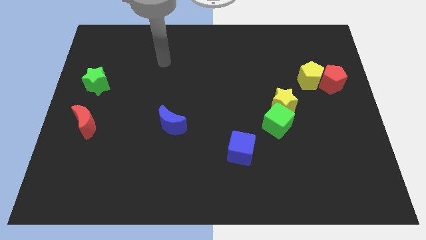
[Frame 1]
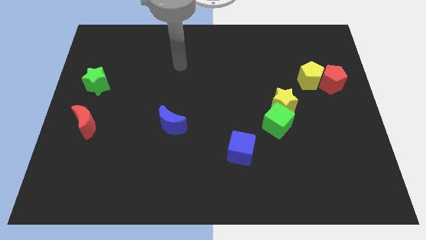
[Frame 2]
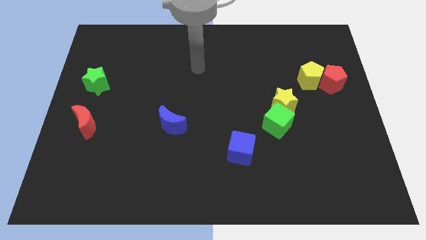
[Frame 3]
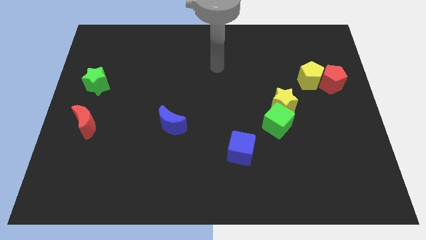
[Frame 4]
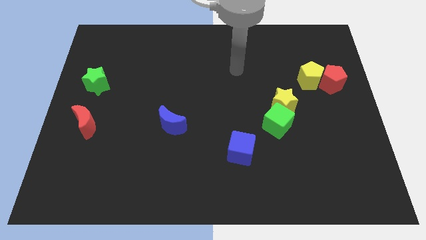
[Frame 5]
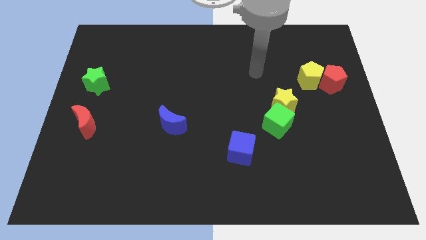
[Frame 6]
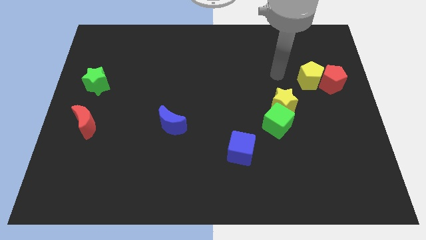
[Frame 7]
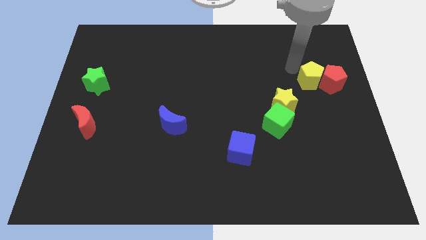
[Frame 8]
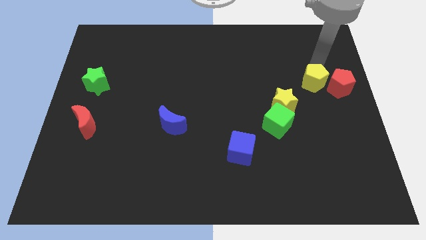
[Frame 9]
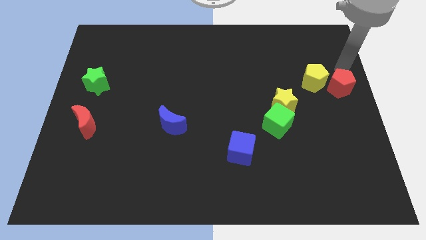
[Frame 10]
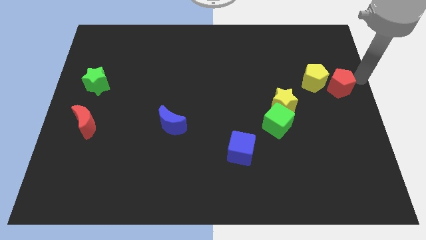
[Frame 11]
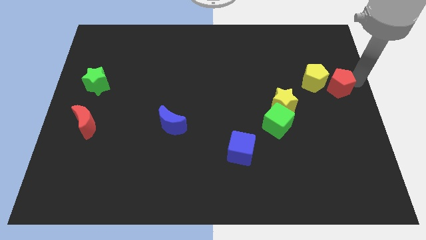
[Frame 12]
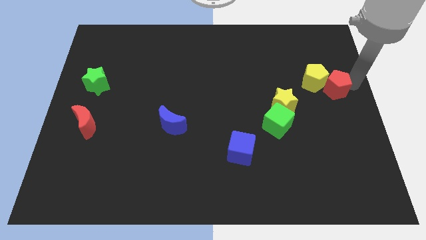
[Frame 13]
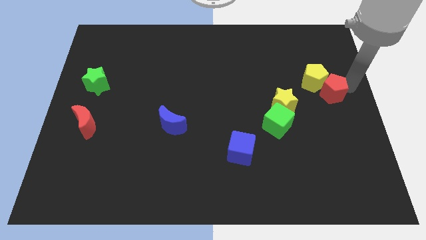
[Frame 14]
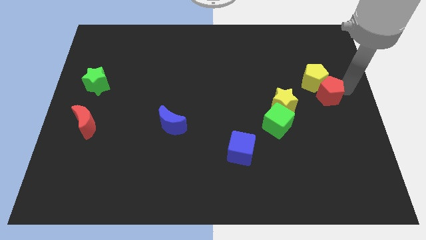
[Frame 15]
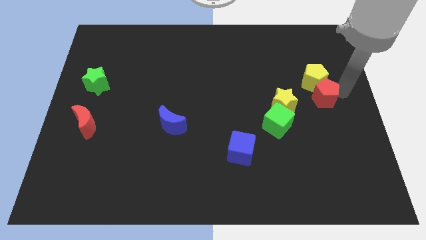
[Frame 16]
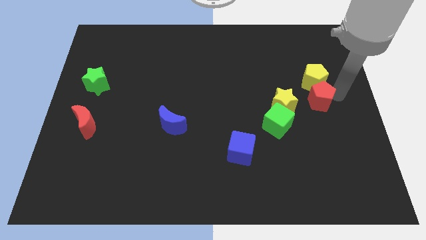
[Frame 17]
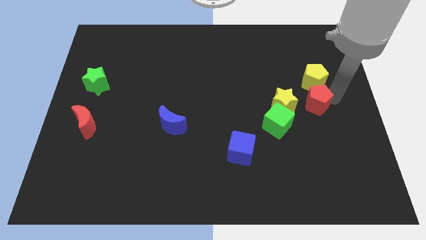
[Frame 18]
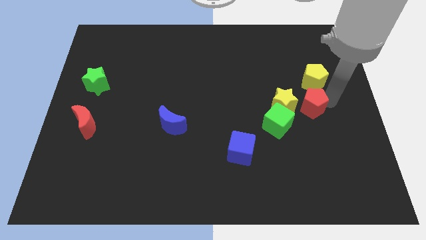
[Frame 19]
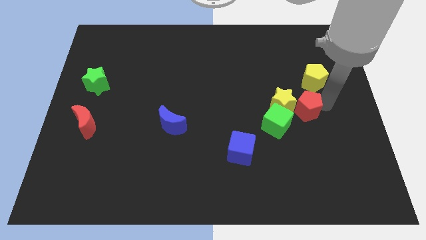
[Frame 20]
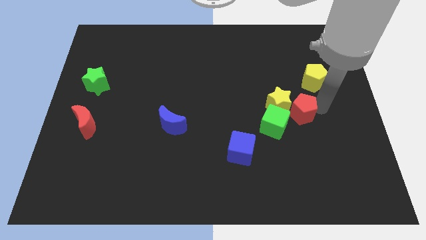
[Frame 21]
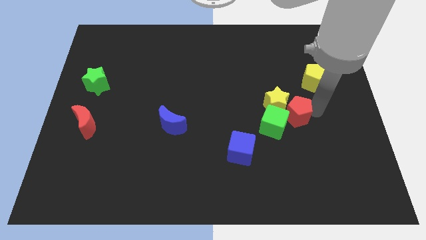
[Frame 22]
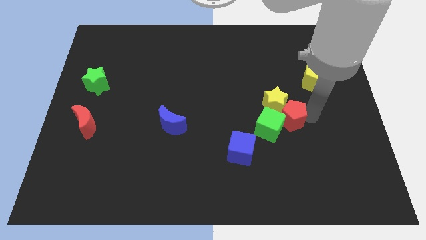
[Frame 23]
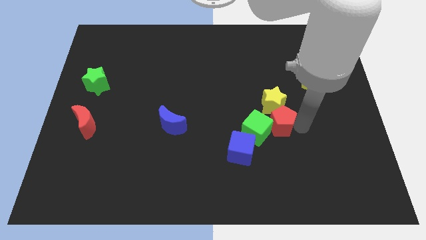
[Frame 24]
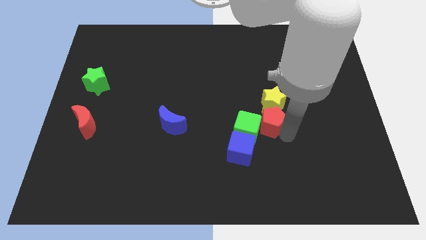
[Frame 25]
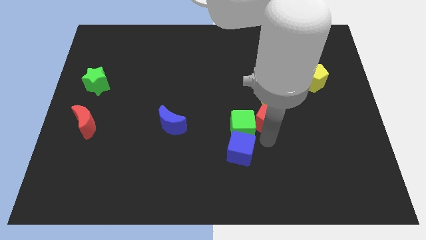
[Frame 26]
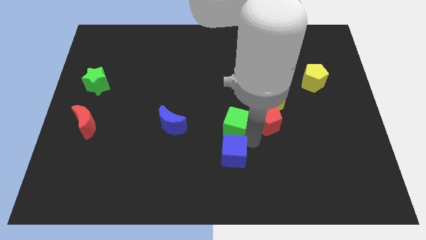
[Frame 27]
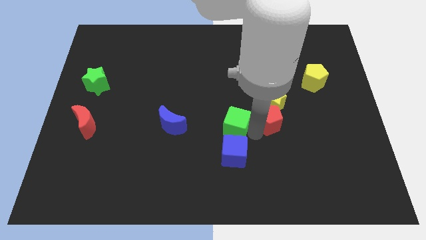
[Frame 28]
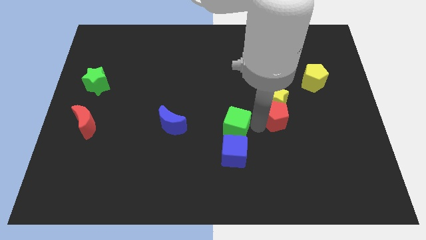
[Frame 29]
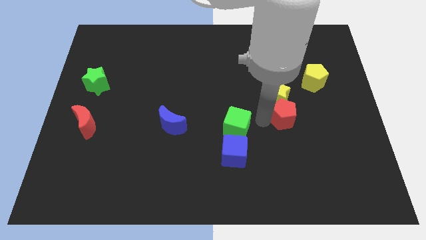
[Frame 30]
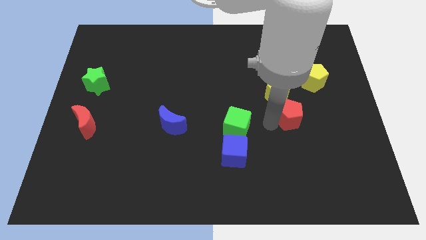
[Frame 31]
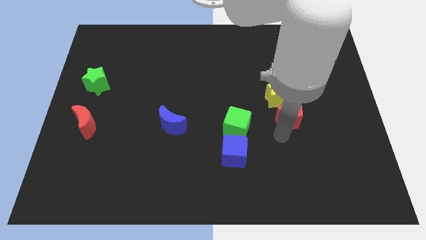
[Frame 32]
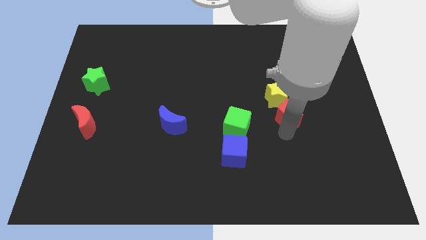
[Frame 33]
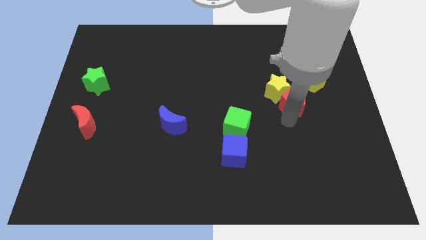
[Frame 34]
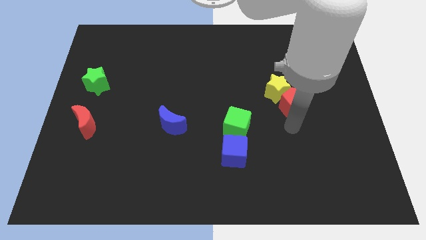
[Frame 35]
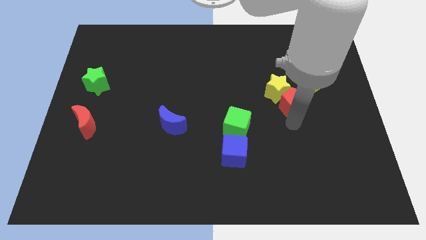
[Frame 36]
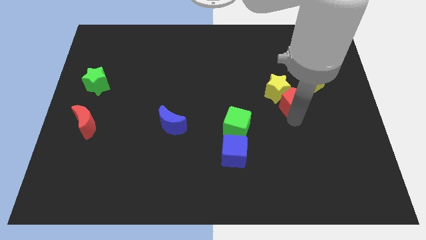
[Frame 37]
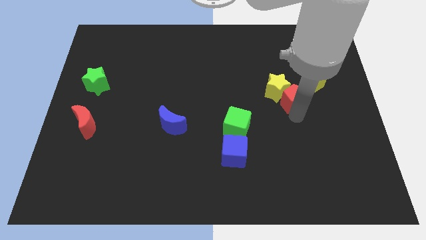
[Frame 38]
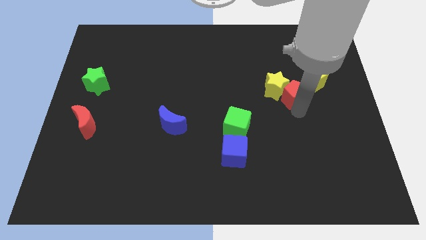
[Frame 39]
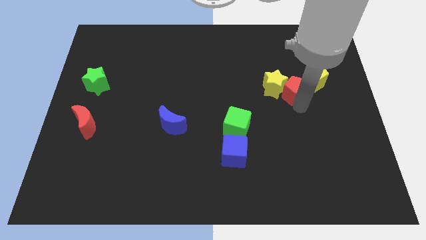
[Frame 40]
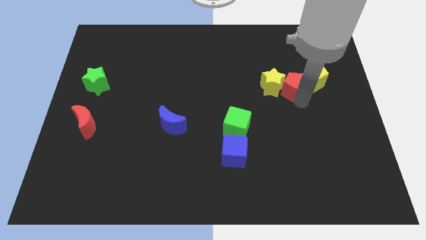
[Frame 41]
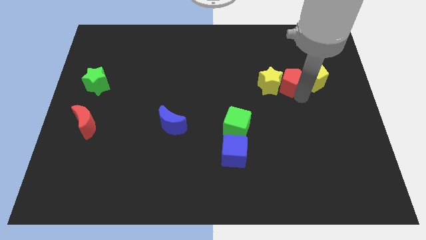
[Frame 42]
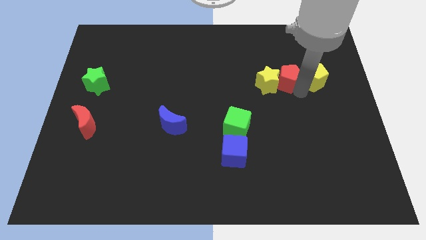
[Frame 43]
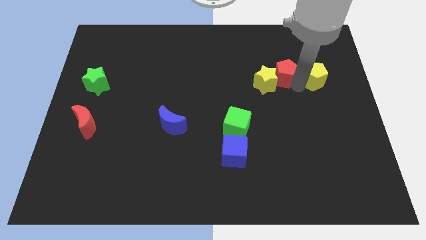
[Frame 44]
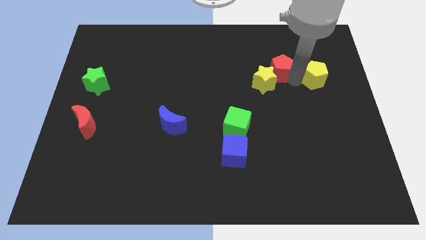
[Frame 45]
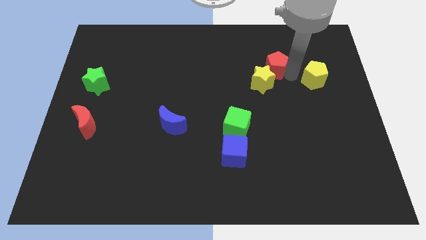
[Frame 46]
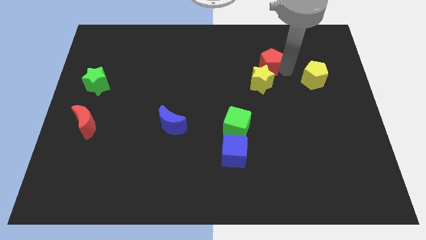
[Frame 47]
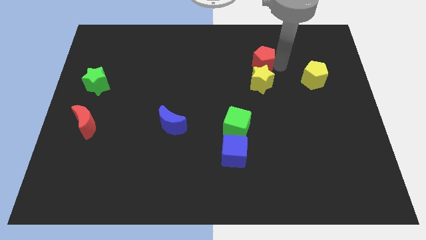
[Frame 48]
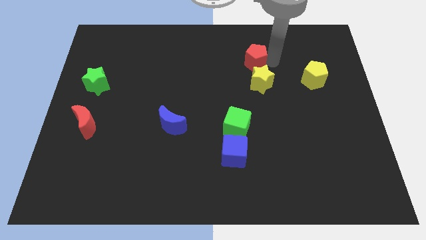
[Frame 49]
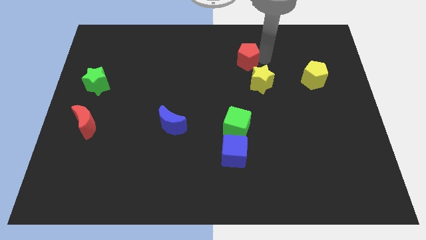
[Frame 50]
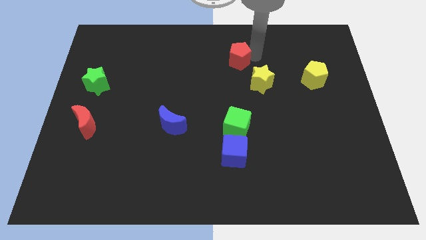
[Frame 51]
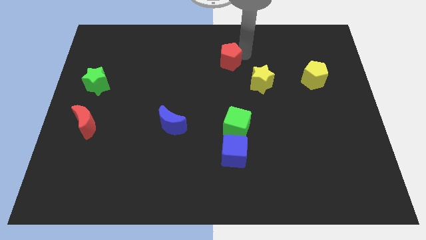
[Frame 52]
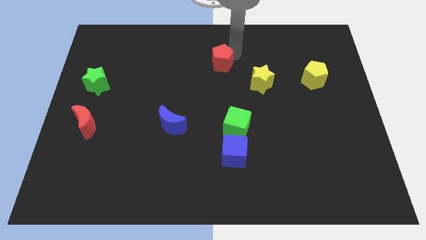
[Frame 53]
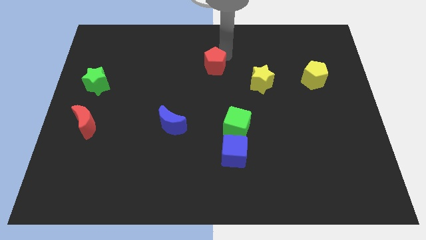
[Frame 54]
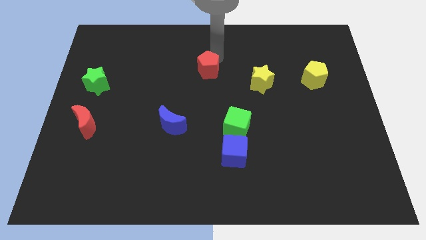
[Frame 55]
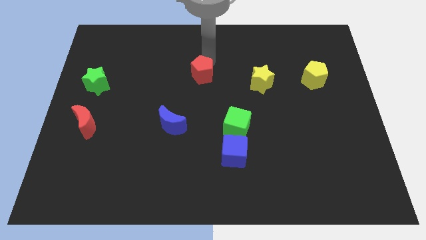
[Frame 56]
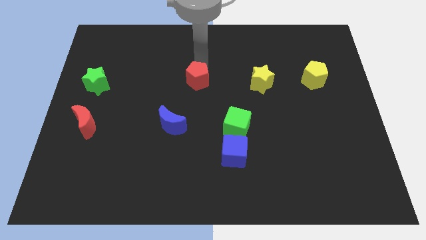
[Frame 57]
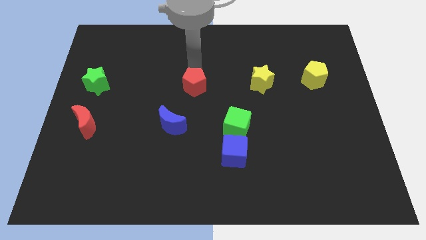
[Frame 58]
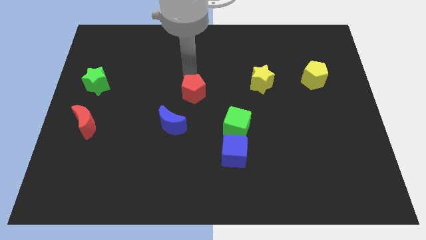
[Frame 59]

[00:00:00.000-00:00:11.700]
slide the red pentagon to the top right side of the blue moon

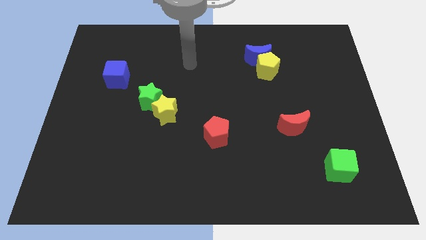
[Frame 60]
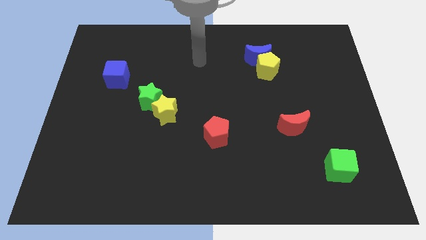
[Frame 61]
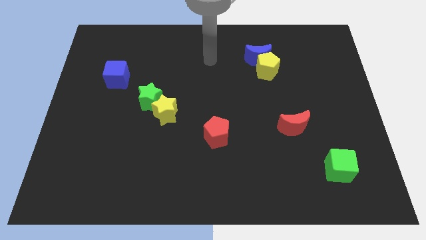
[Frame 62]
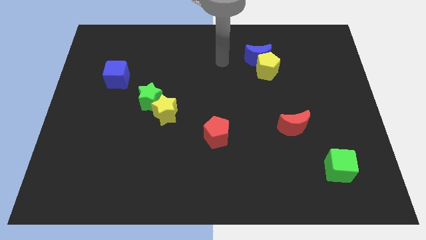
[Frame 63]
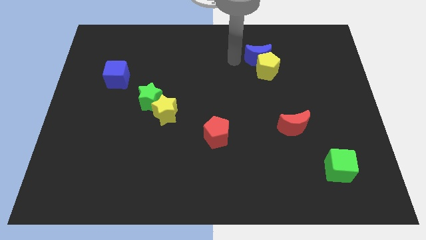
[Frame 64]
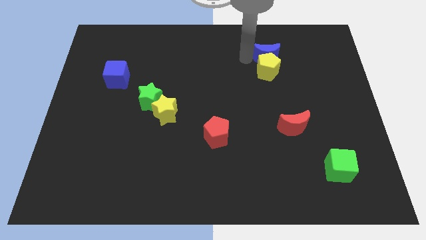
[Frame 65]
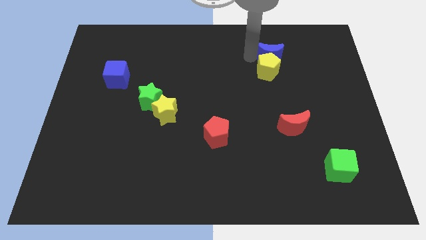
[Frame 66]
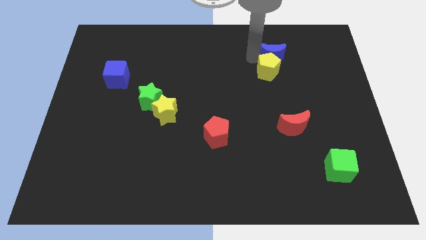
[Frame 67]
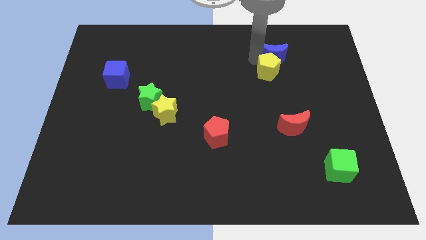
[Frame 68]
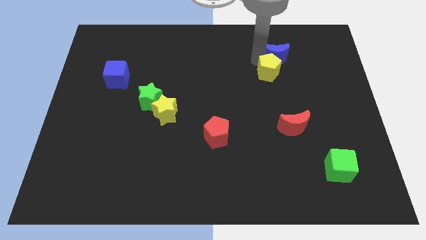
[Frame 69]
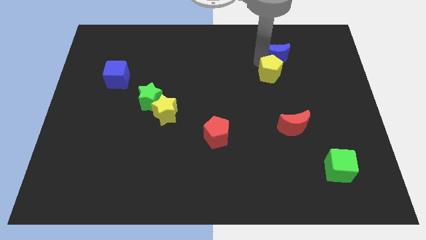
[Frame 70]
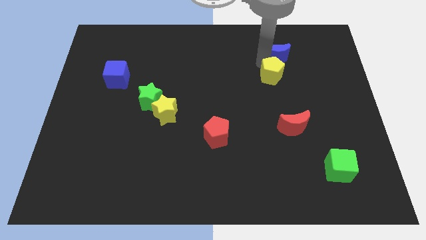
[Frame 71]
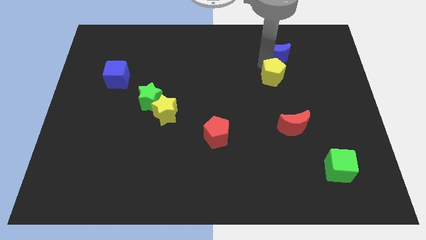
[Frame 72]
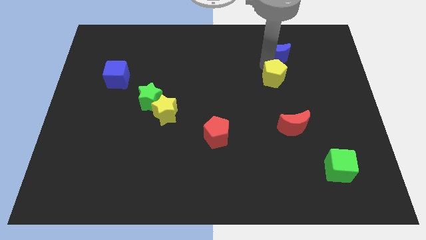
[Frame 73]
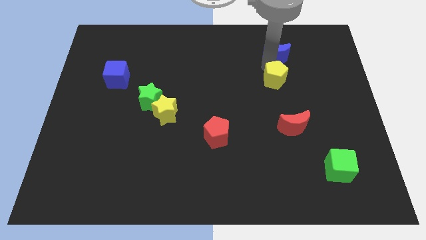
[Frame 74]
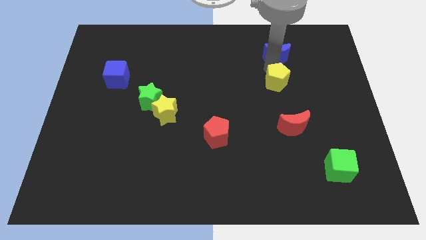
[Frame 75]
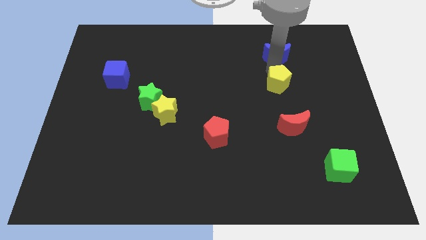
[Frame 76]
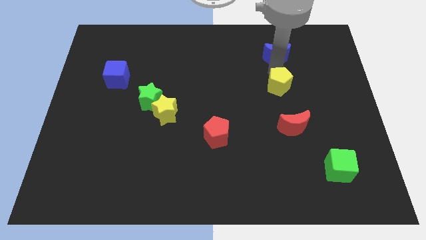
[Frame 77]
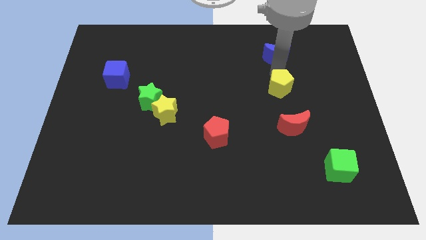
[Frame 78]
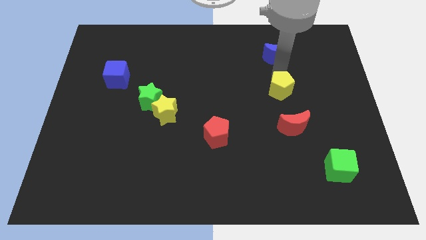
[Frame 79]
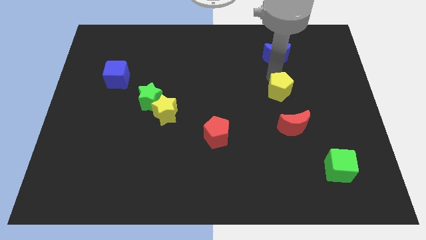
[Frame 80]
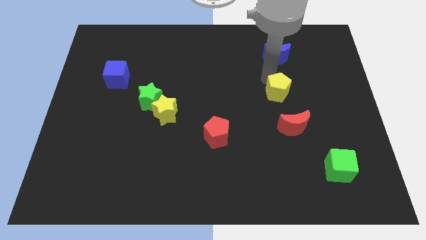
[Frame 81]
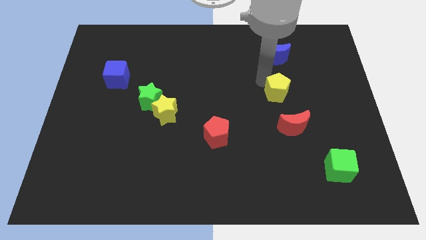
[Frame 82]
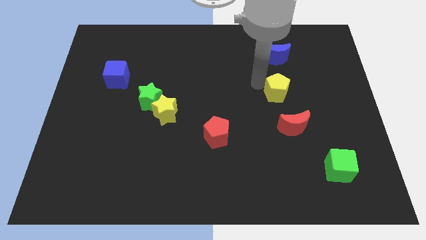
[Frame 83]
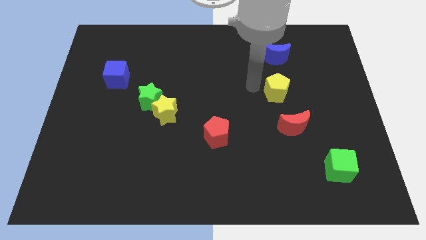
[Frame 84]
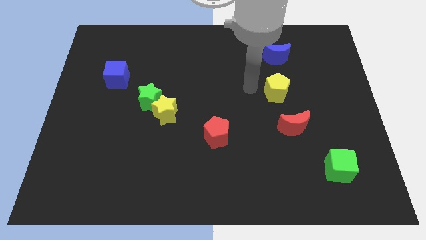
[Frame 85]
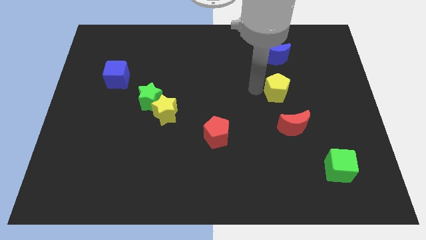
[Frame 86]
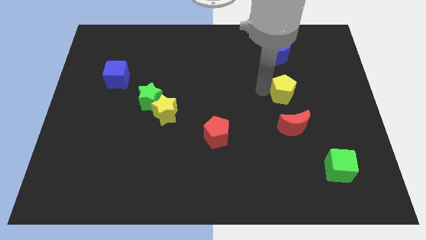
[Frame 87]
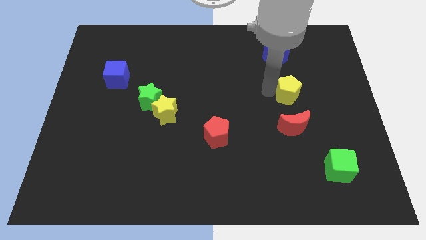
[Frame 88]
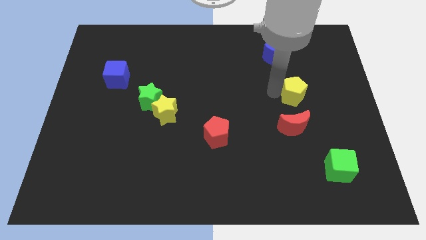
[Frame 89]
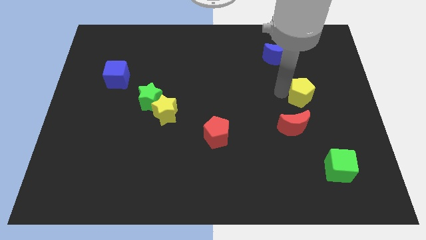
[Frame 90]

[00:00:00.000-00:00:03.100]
push the yellow pentagon diagonally up and to the right of the red moon
